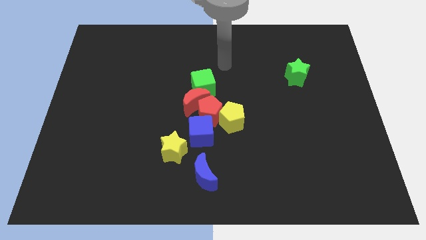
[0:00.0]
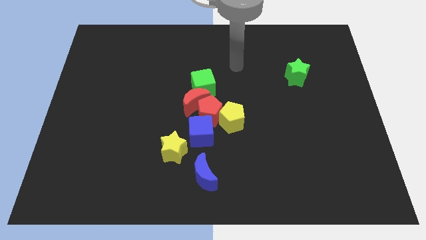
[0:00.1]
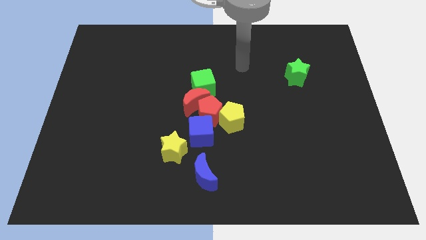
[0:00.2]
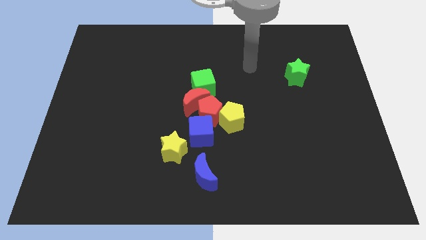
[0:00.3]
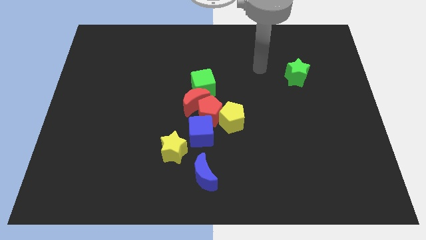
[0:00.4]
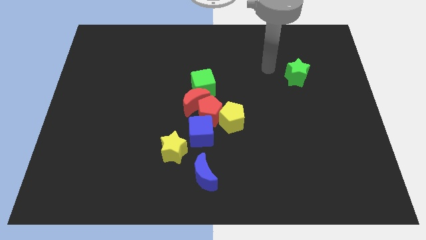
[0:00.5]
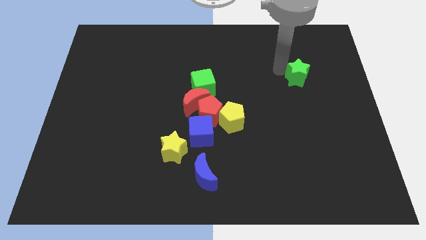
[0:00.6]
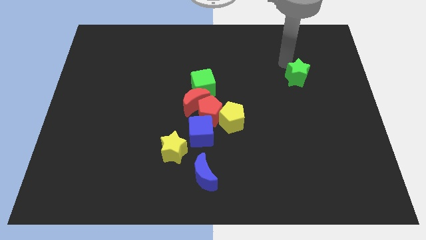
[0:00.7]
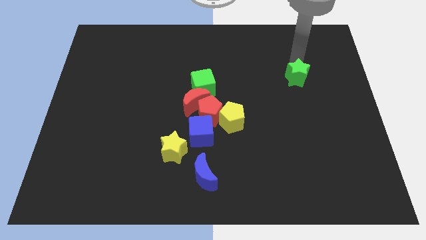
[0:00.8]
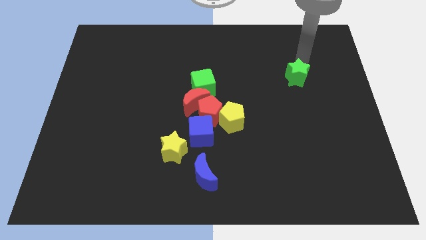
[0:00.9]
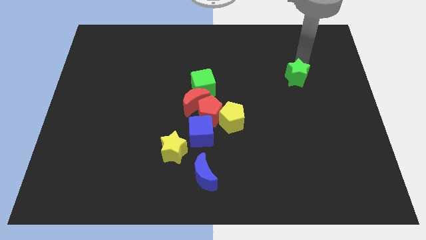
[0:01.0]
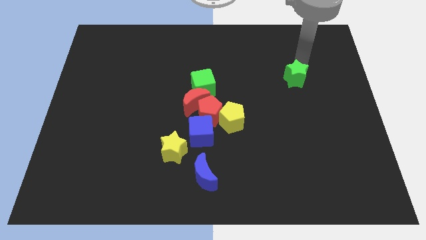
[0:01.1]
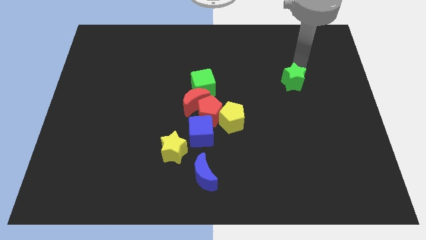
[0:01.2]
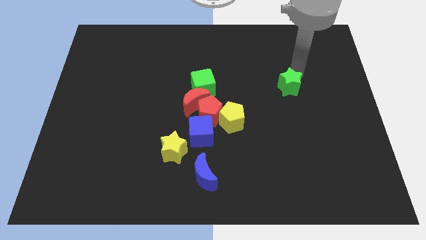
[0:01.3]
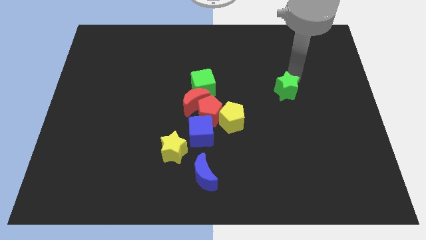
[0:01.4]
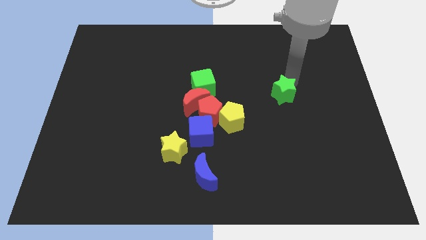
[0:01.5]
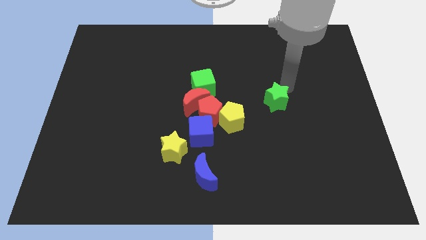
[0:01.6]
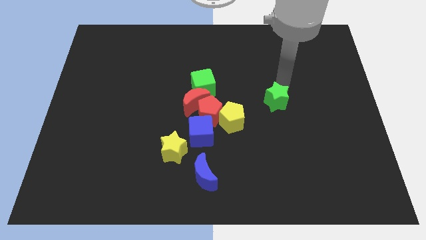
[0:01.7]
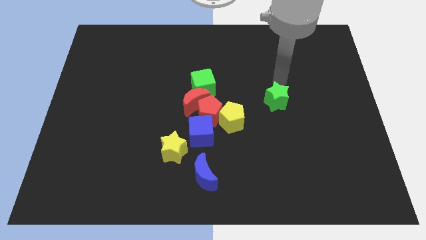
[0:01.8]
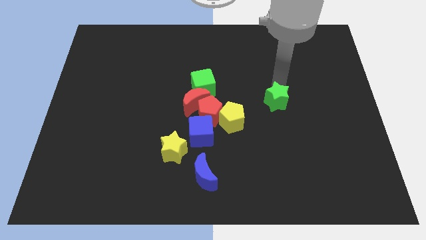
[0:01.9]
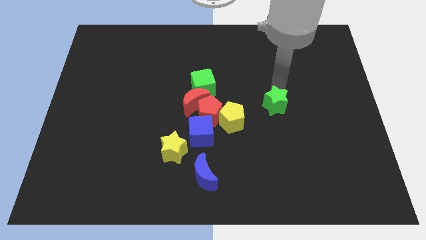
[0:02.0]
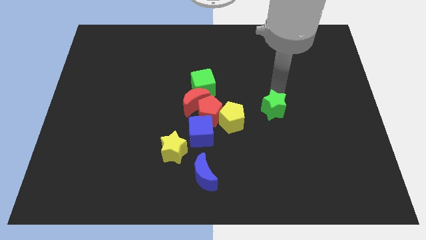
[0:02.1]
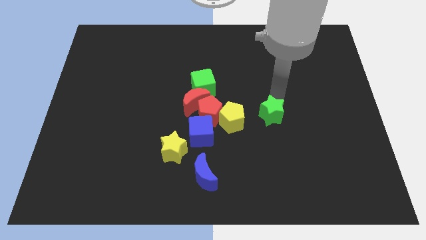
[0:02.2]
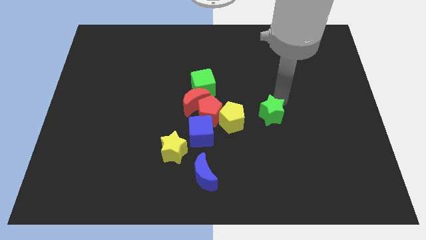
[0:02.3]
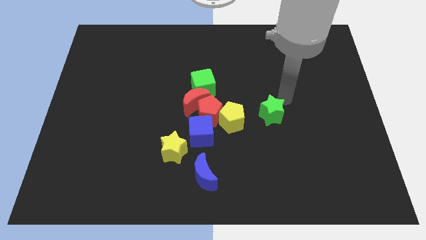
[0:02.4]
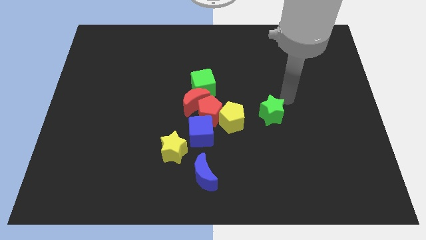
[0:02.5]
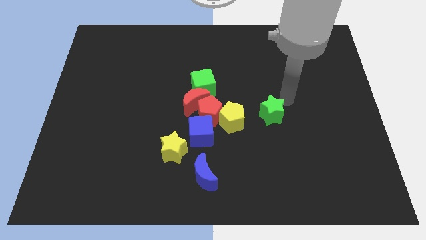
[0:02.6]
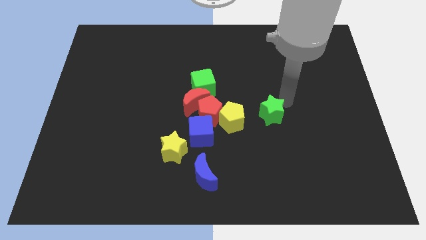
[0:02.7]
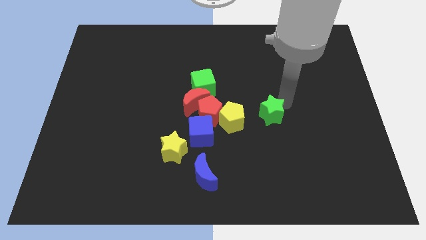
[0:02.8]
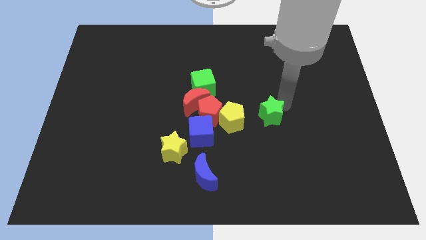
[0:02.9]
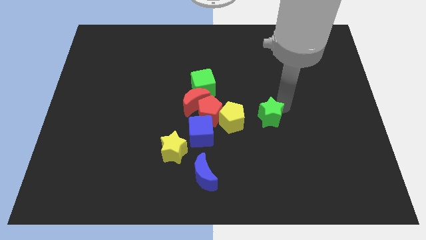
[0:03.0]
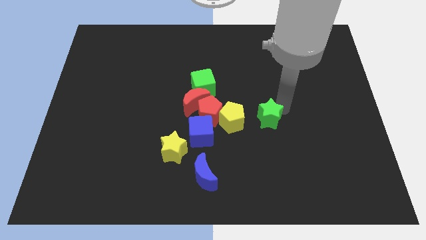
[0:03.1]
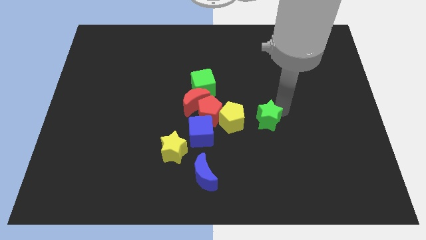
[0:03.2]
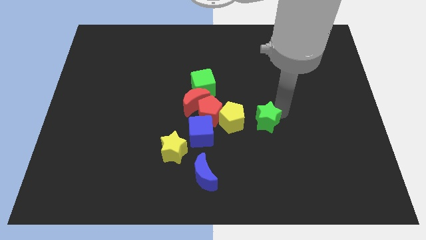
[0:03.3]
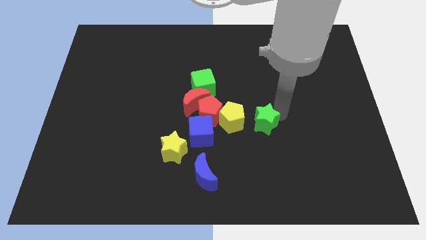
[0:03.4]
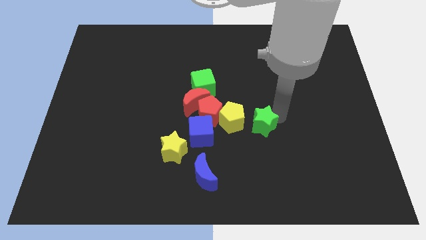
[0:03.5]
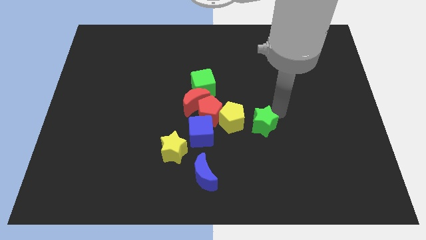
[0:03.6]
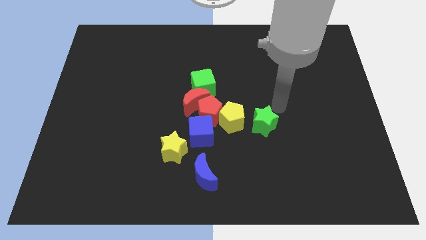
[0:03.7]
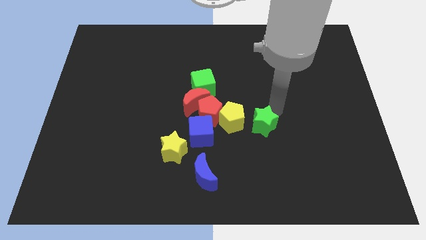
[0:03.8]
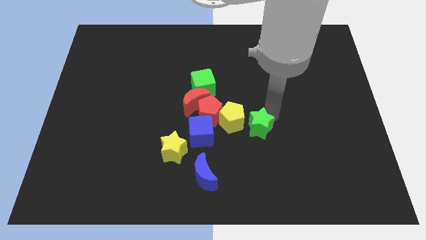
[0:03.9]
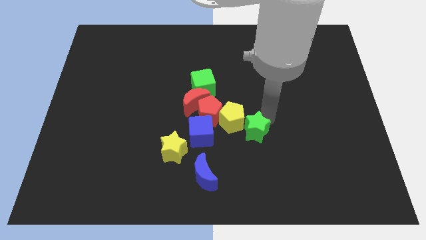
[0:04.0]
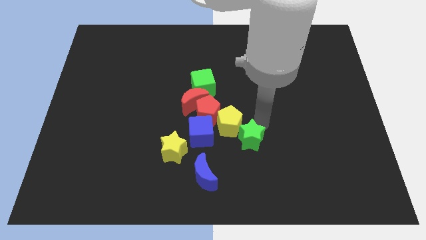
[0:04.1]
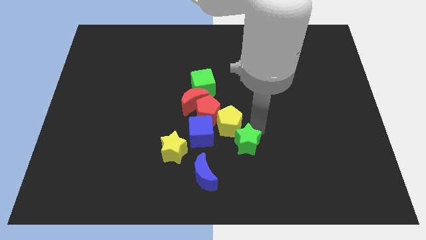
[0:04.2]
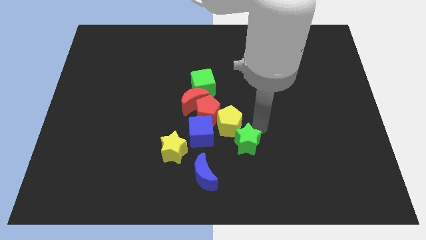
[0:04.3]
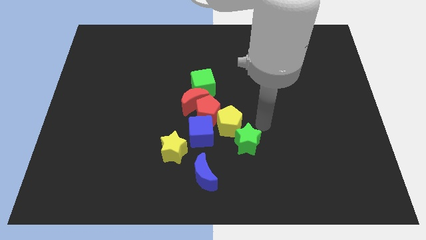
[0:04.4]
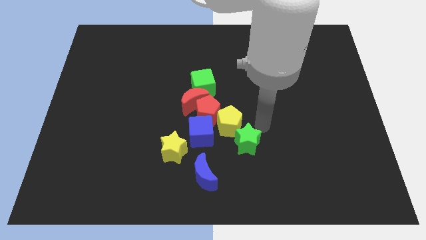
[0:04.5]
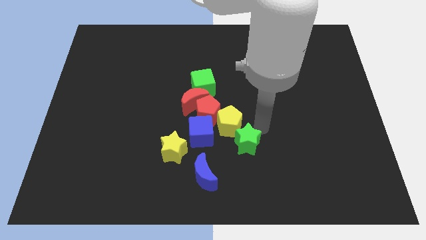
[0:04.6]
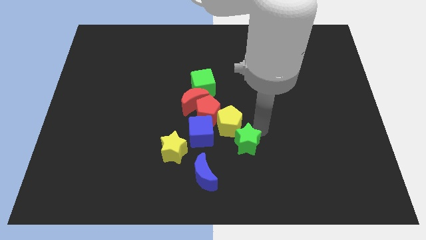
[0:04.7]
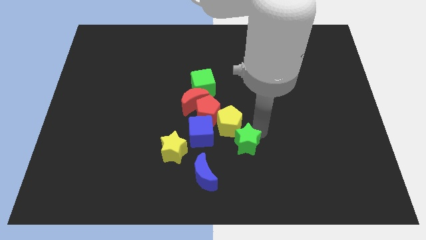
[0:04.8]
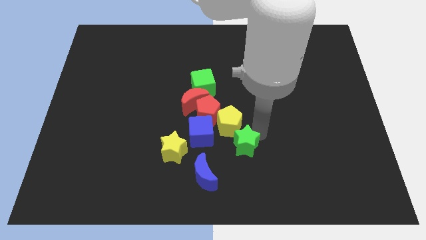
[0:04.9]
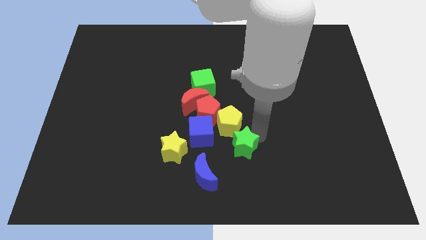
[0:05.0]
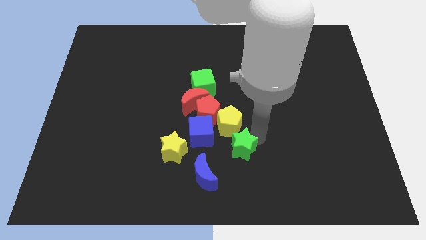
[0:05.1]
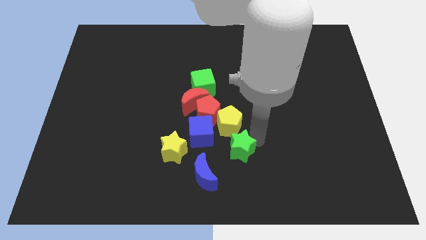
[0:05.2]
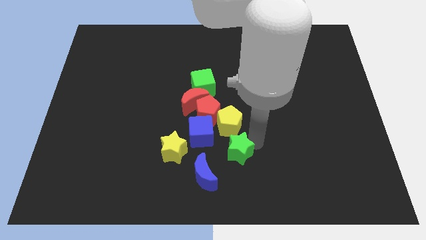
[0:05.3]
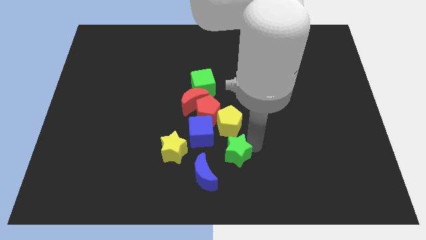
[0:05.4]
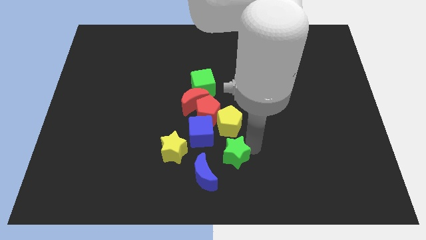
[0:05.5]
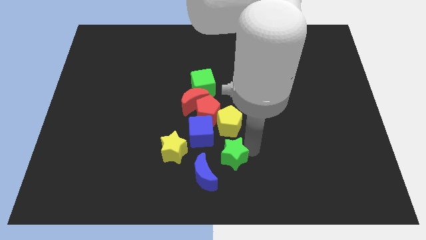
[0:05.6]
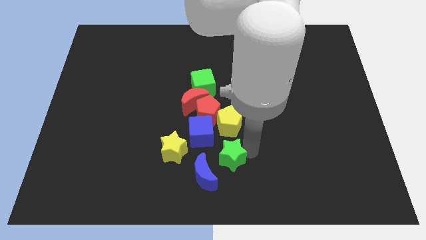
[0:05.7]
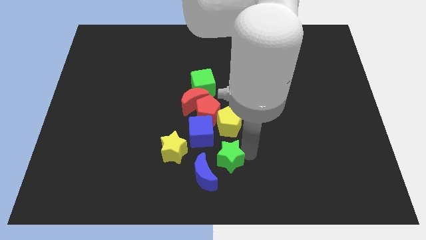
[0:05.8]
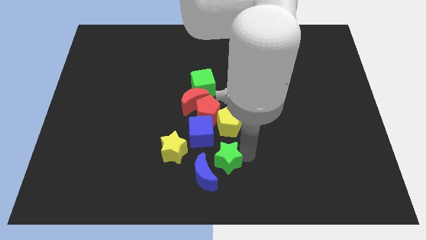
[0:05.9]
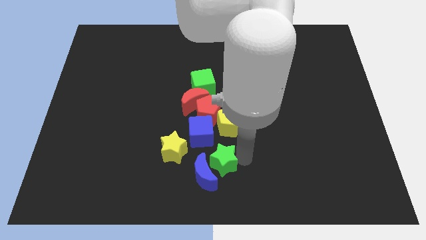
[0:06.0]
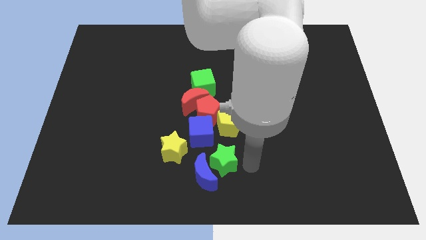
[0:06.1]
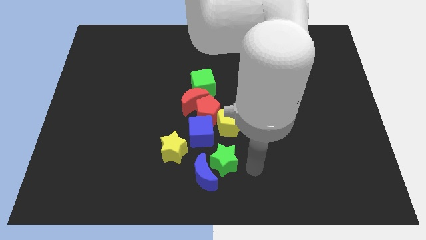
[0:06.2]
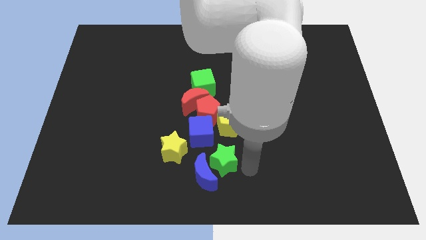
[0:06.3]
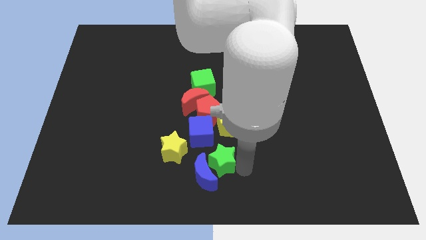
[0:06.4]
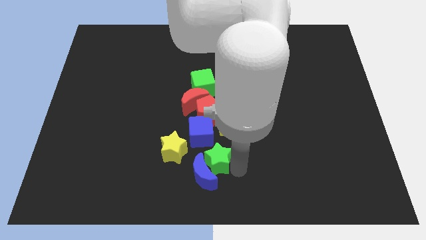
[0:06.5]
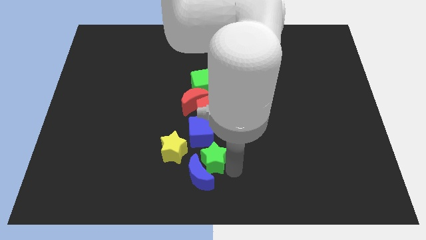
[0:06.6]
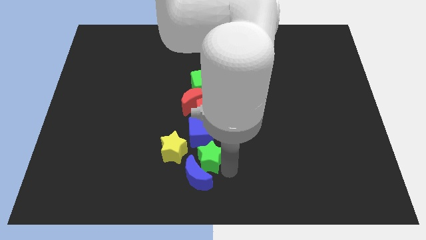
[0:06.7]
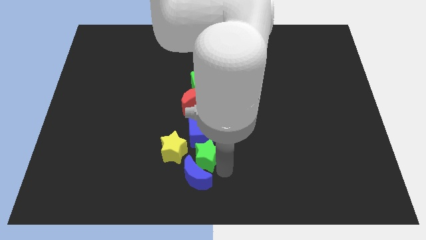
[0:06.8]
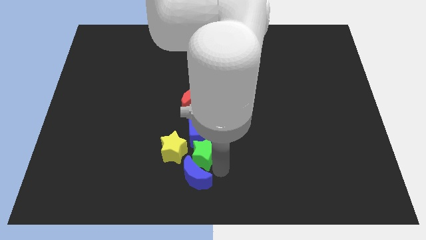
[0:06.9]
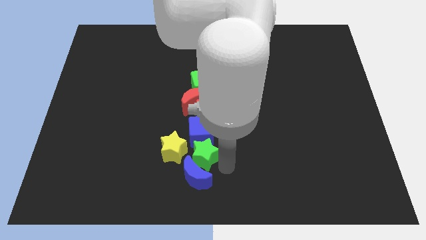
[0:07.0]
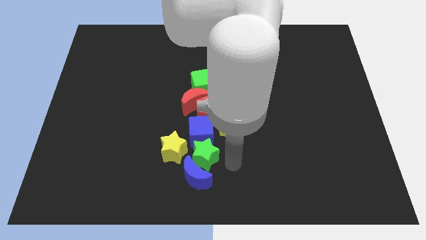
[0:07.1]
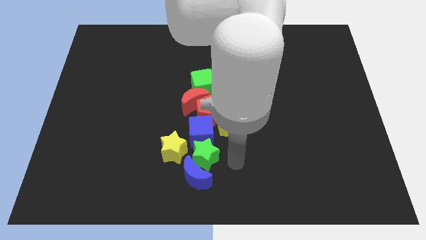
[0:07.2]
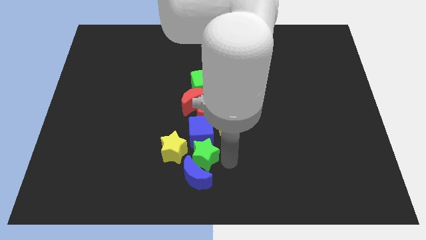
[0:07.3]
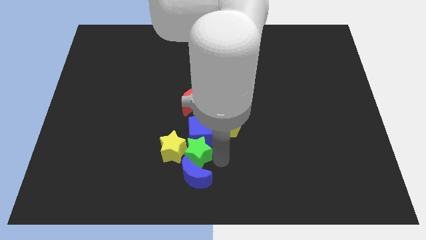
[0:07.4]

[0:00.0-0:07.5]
move the green star close to the yellow star

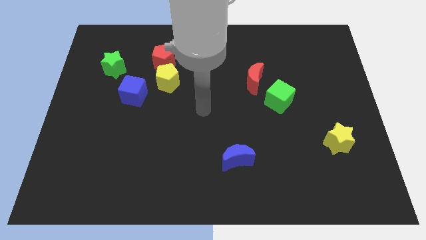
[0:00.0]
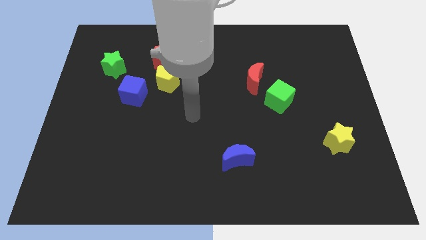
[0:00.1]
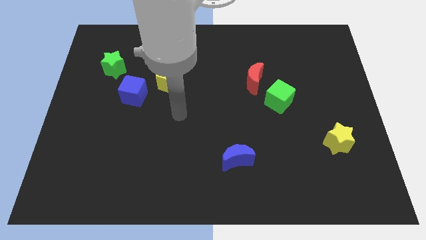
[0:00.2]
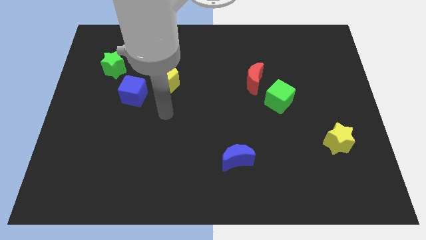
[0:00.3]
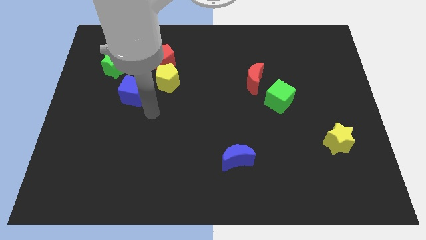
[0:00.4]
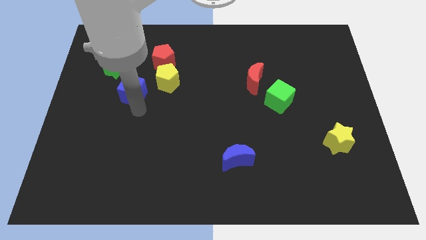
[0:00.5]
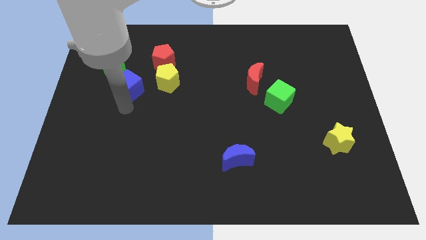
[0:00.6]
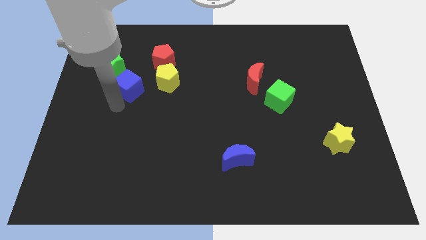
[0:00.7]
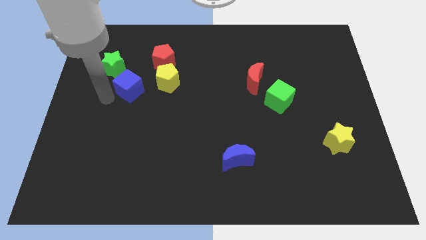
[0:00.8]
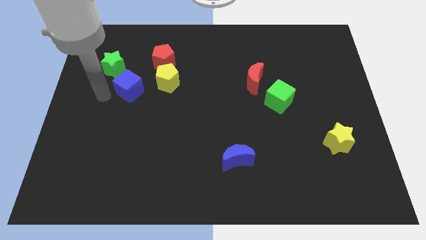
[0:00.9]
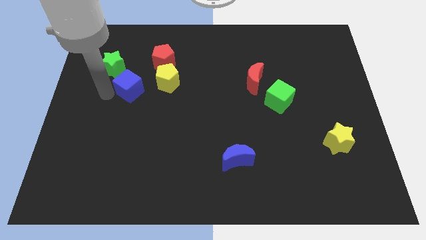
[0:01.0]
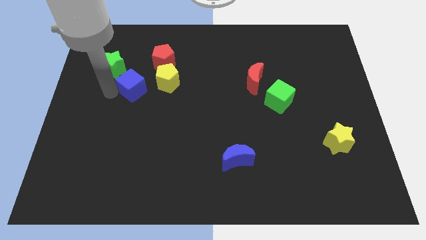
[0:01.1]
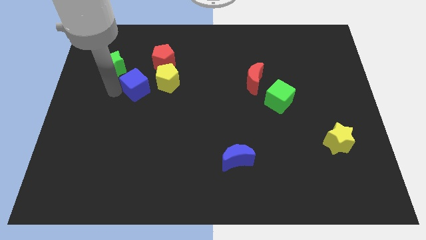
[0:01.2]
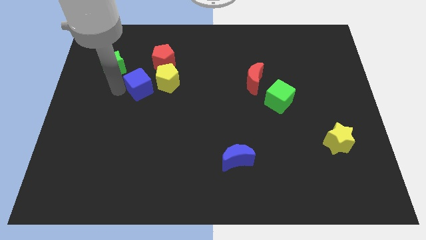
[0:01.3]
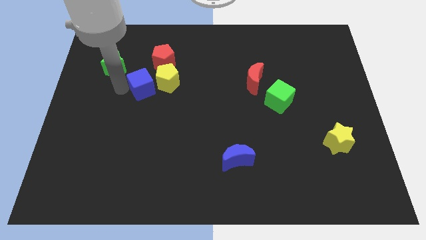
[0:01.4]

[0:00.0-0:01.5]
move the blue cube next to the yellow pentagon
